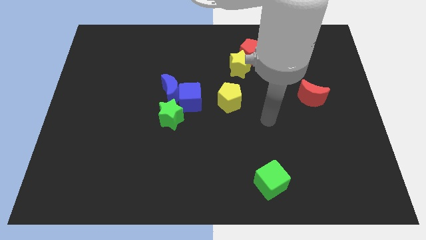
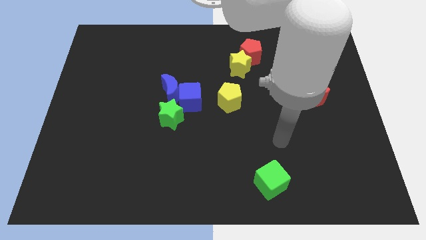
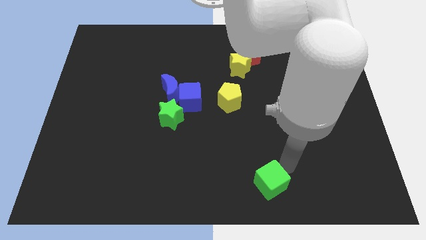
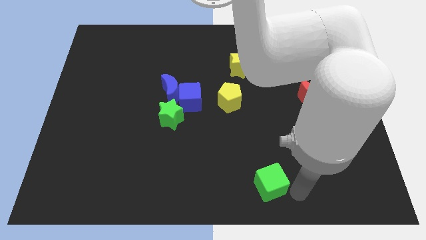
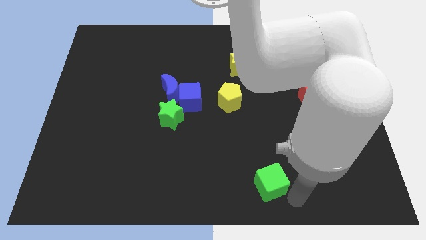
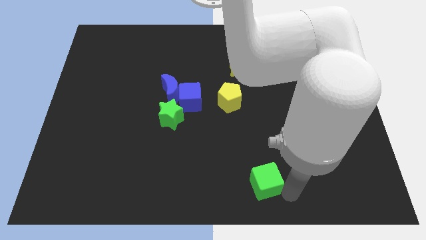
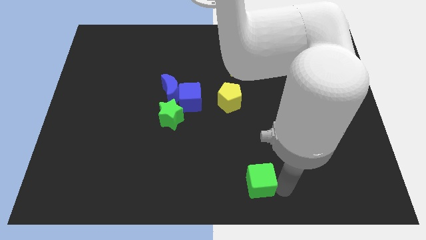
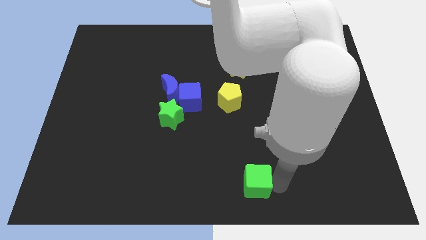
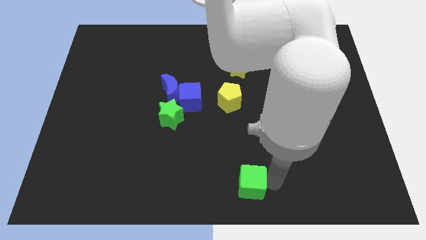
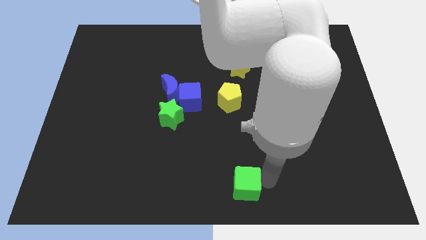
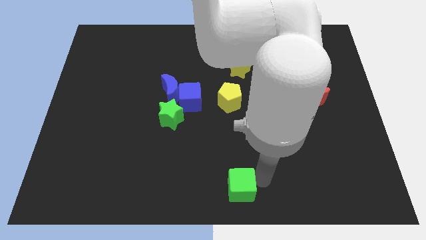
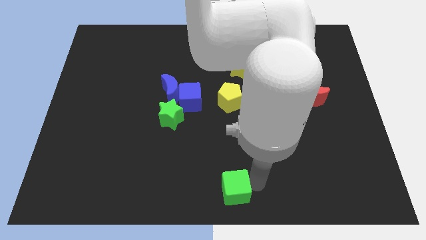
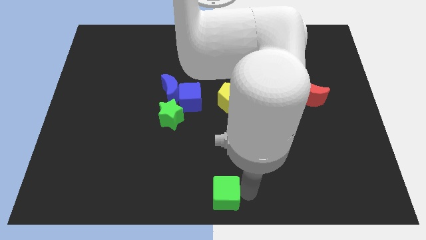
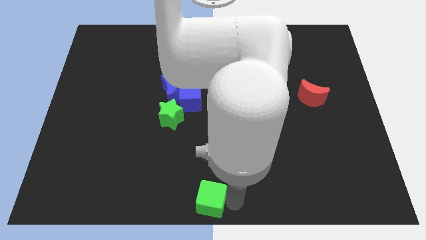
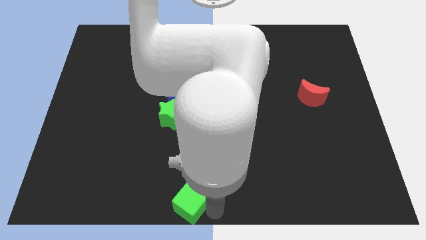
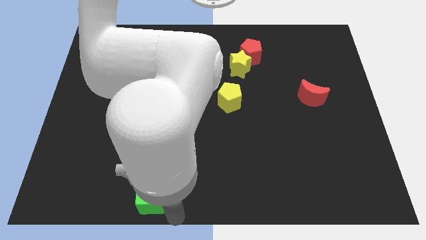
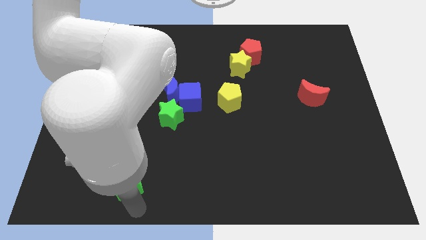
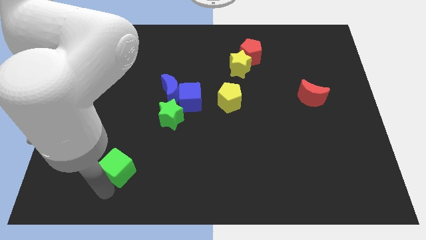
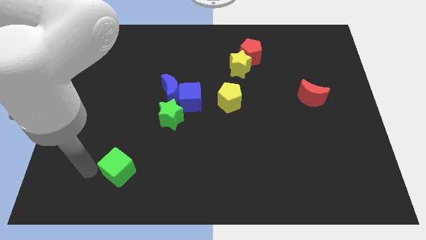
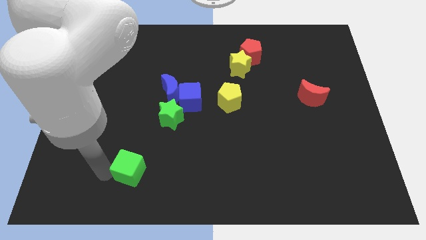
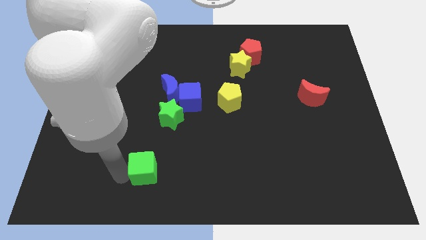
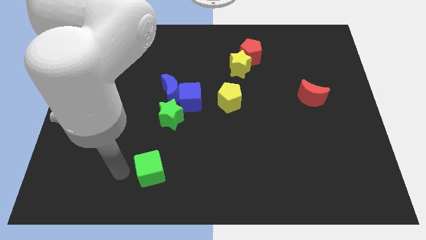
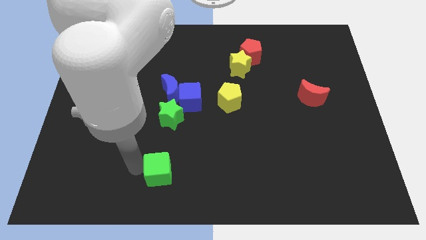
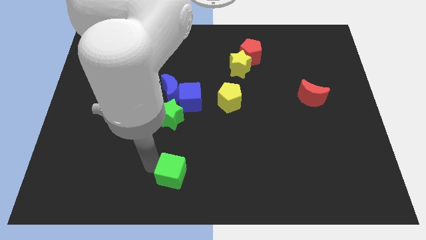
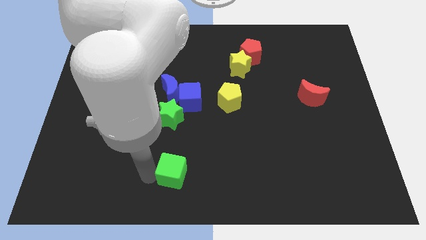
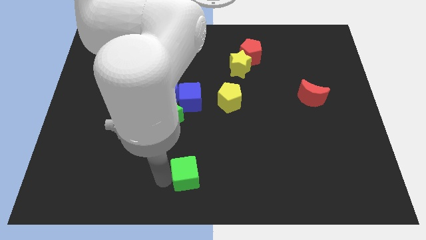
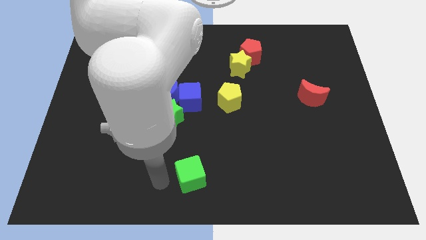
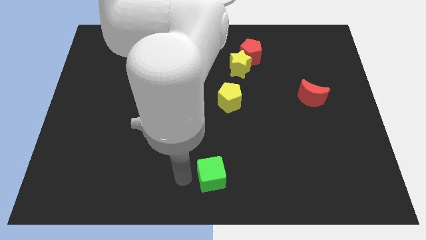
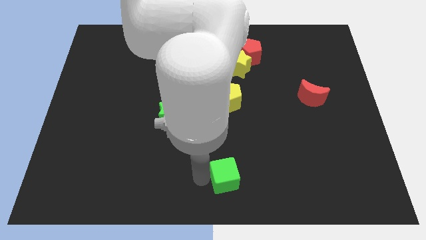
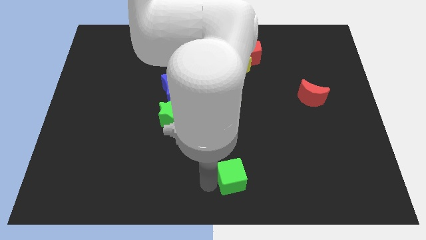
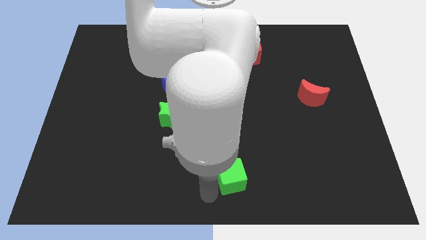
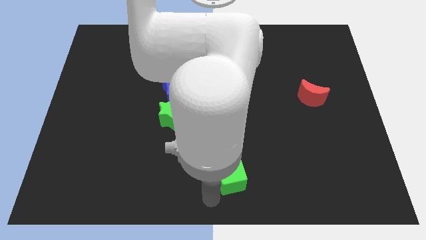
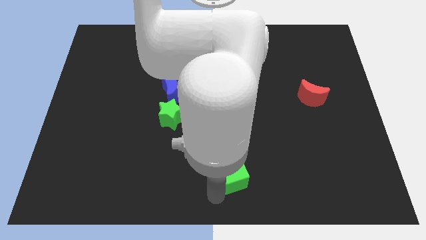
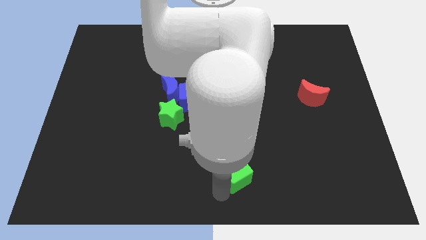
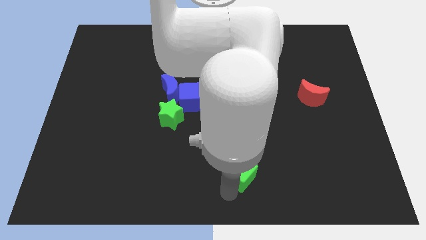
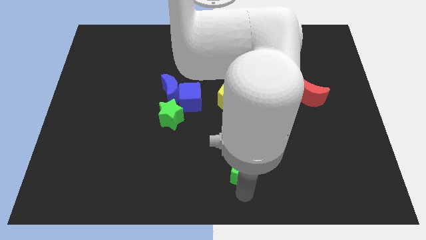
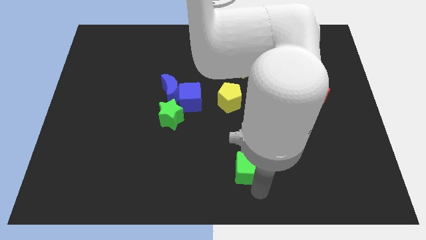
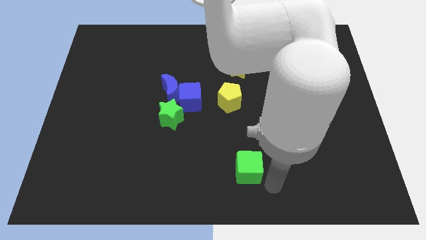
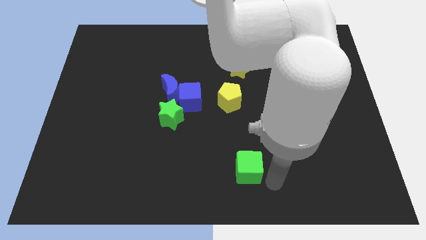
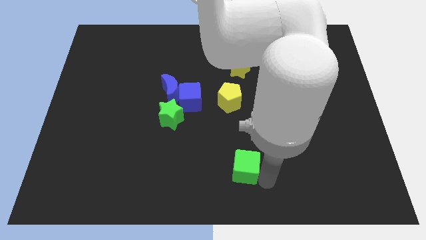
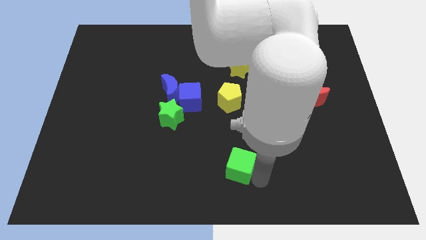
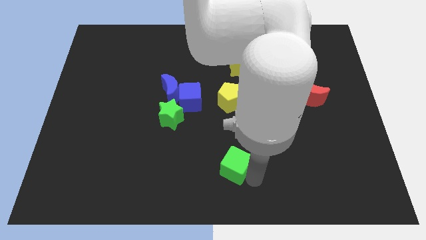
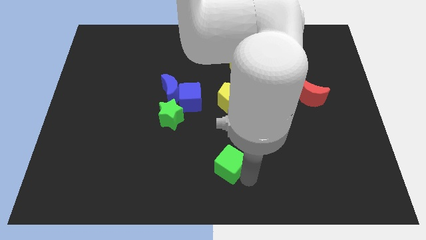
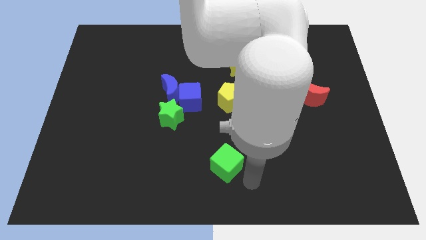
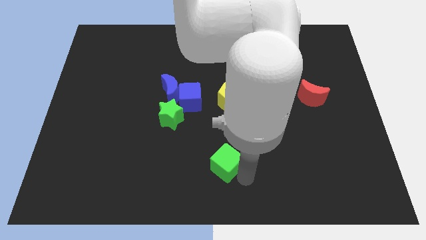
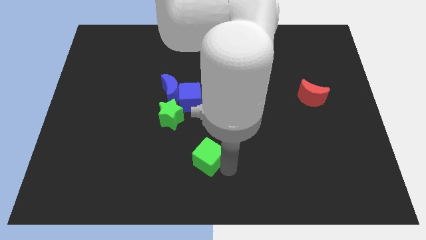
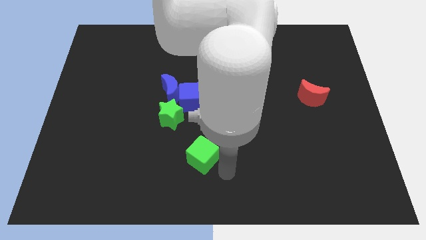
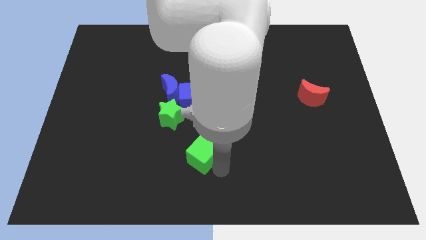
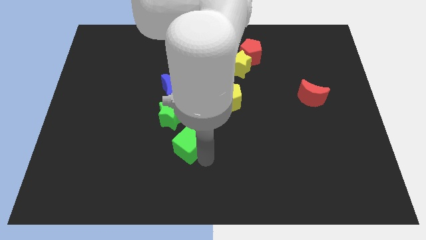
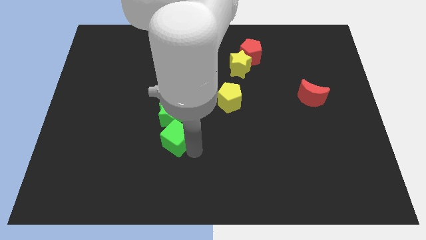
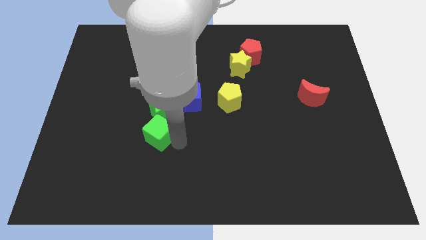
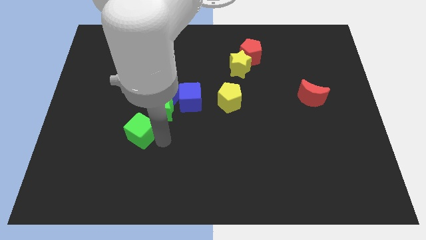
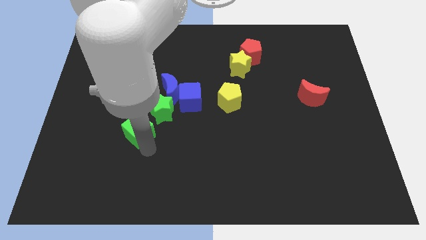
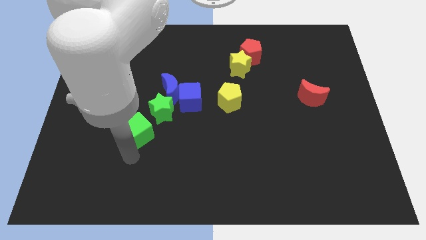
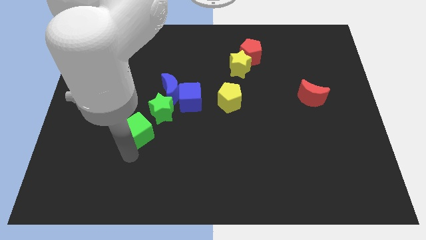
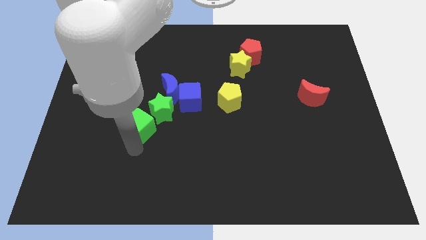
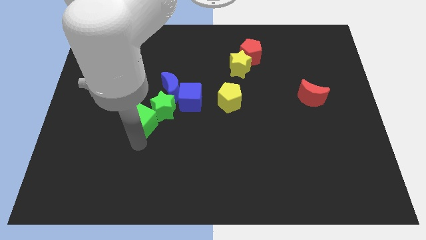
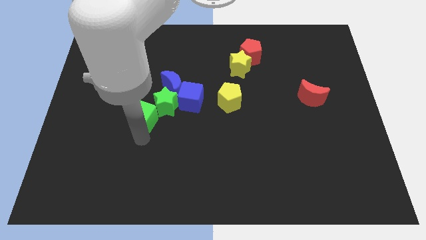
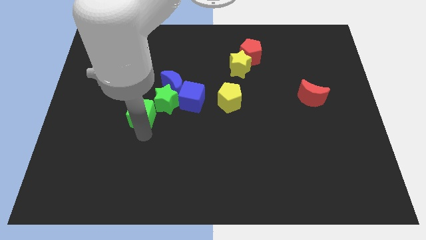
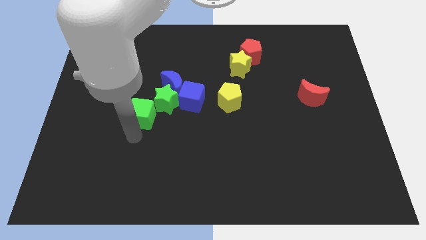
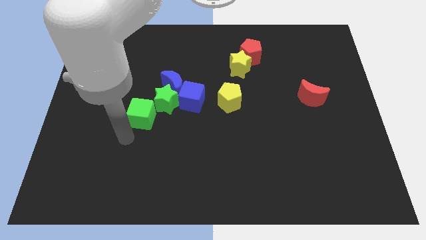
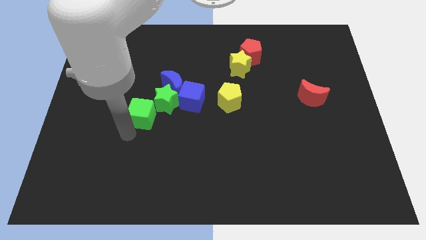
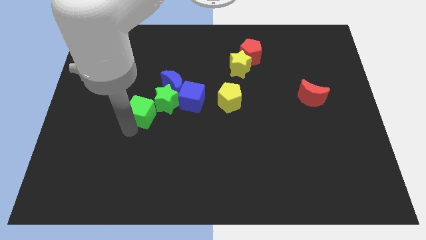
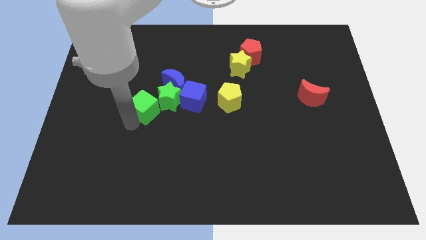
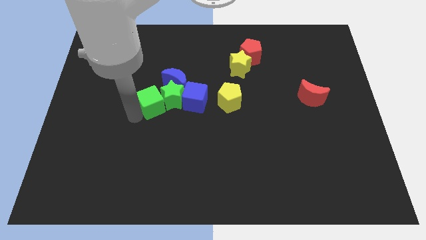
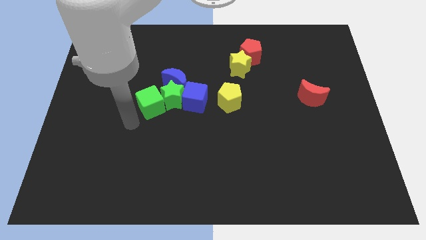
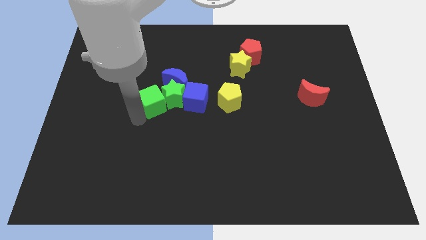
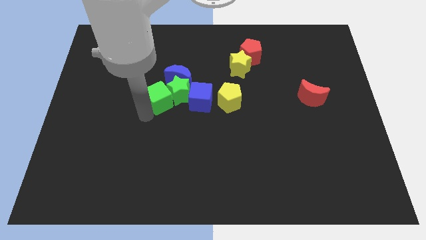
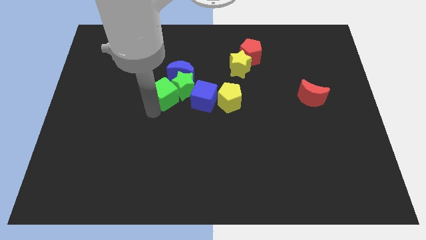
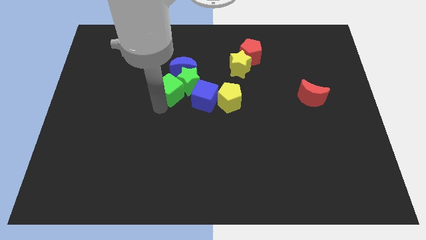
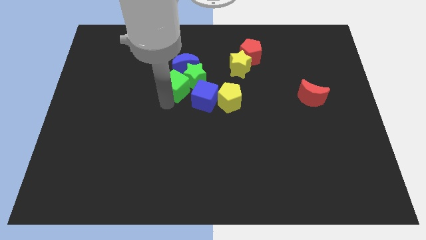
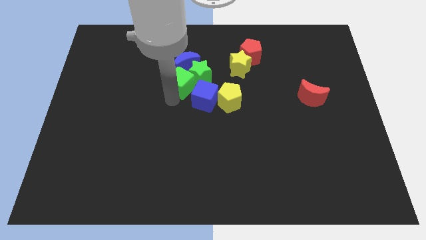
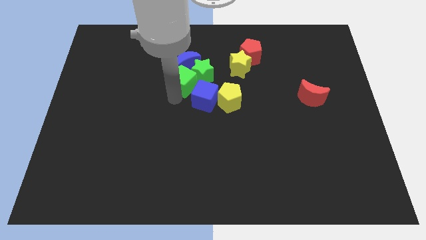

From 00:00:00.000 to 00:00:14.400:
move the green cube next to the blue moon

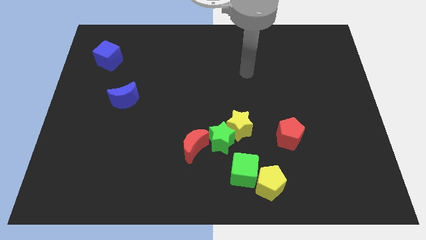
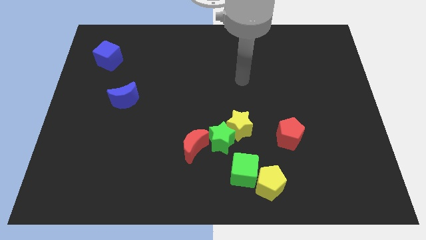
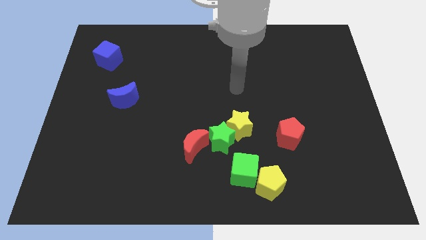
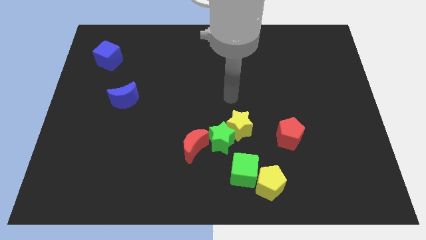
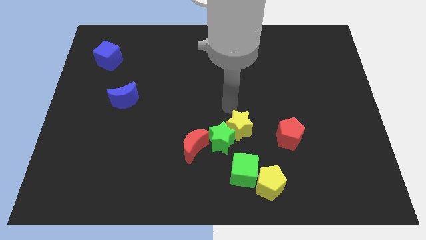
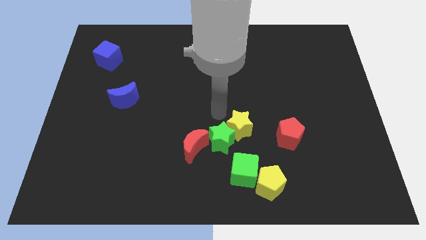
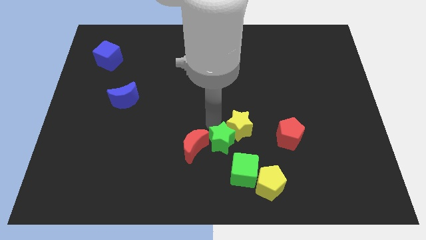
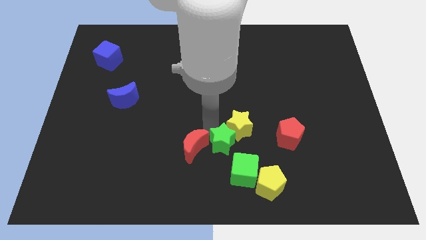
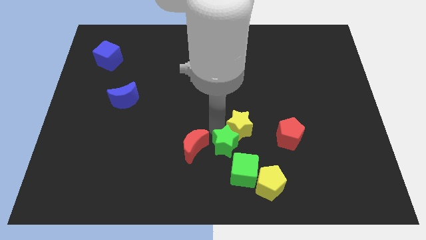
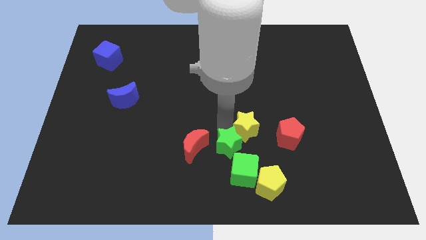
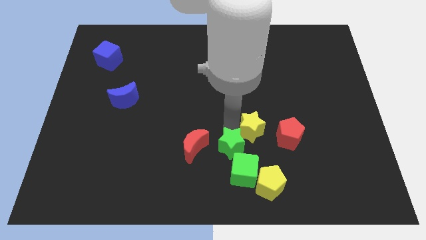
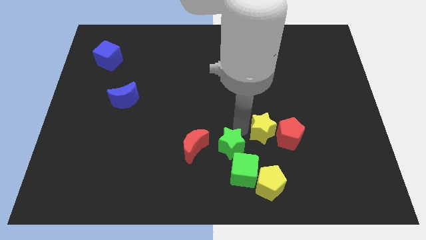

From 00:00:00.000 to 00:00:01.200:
push the yellow star towards the red pentagon
